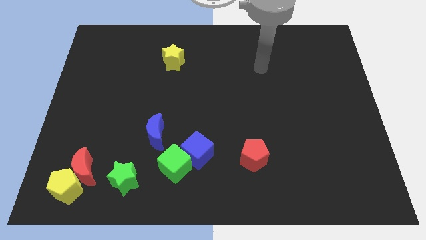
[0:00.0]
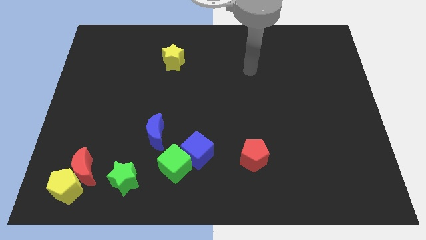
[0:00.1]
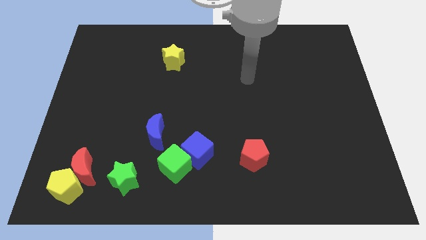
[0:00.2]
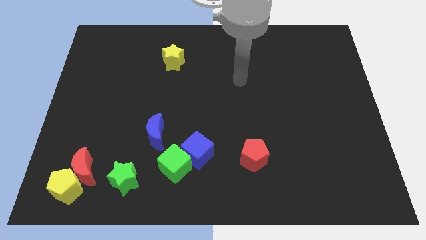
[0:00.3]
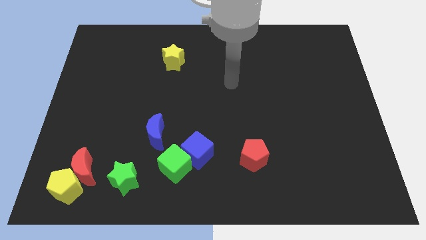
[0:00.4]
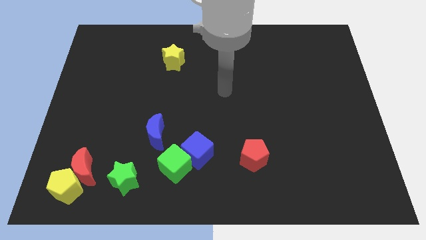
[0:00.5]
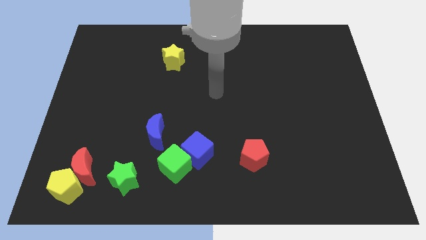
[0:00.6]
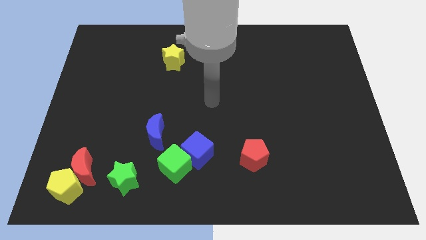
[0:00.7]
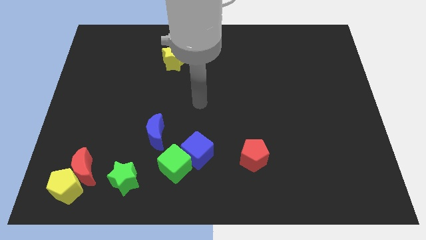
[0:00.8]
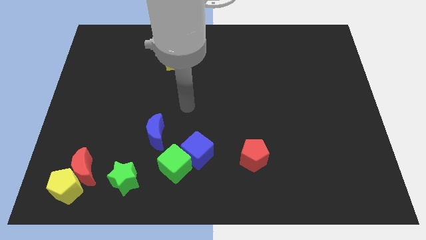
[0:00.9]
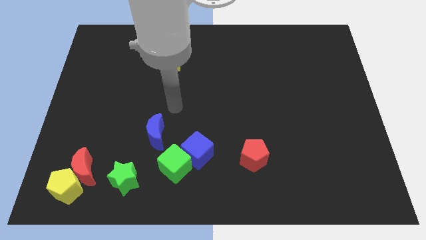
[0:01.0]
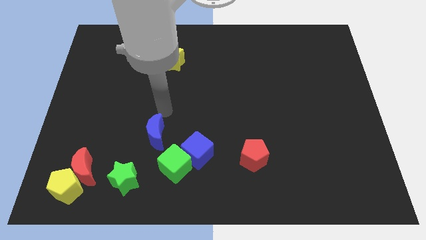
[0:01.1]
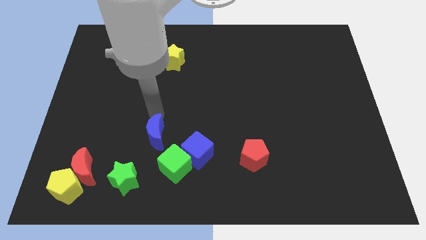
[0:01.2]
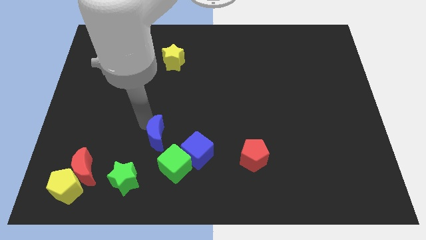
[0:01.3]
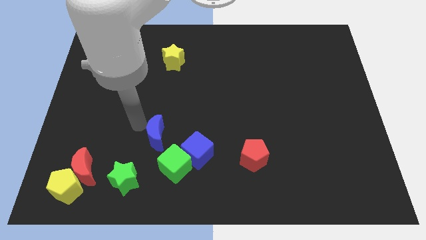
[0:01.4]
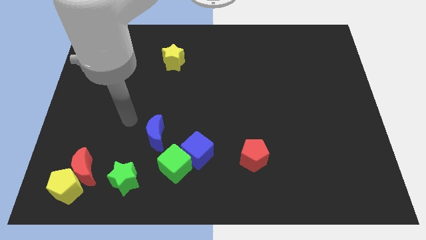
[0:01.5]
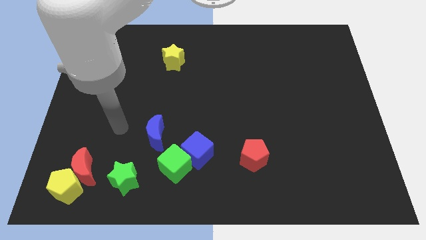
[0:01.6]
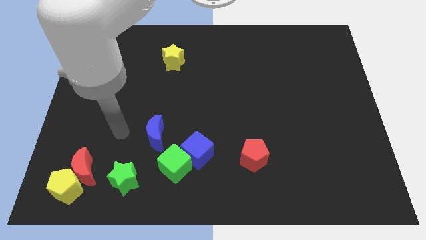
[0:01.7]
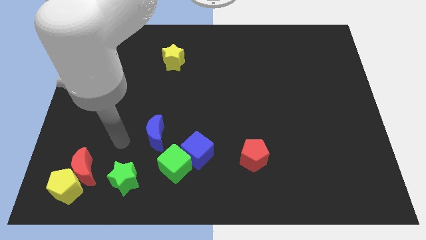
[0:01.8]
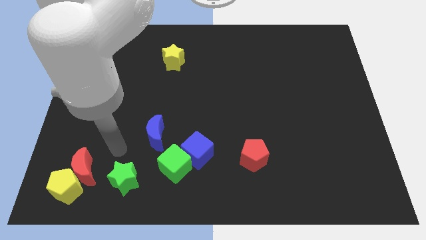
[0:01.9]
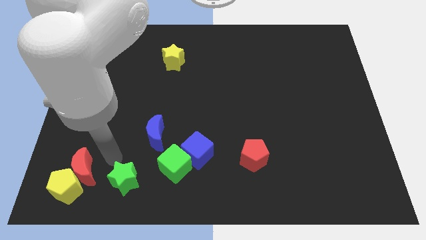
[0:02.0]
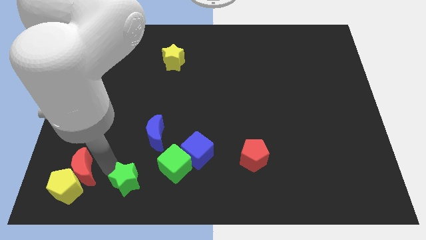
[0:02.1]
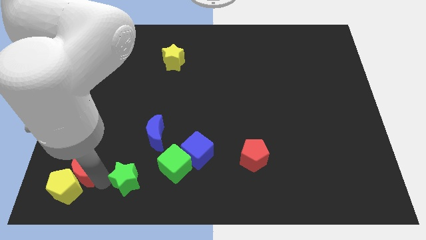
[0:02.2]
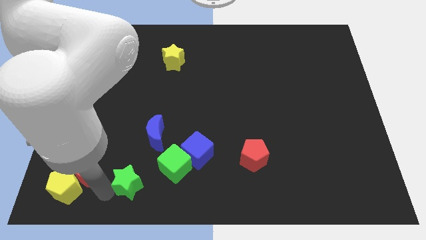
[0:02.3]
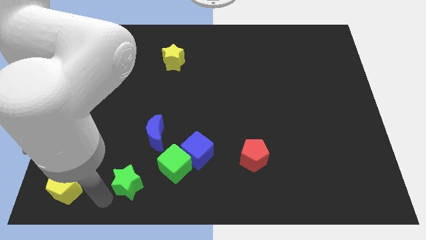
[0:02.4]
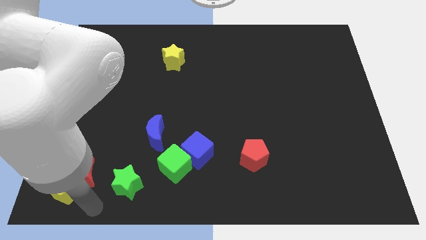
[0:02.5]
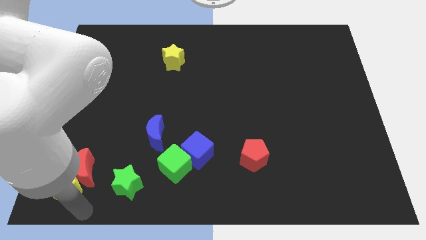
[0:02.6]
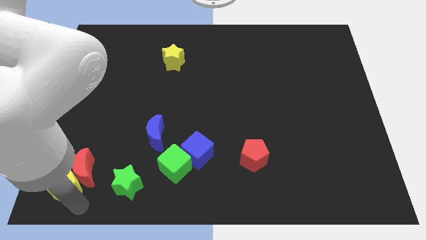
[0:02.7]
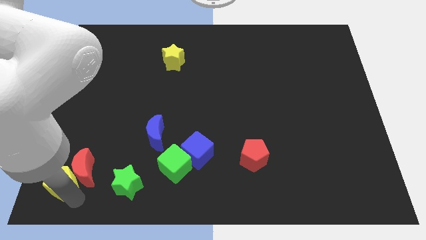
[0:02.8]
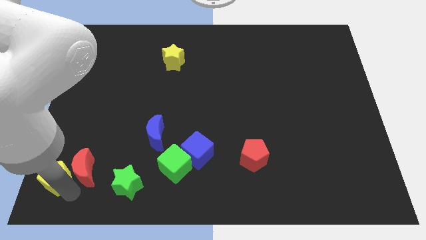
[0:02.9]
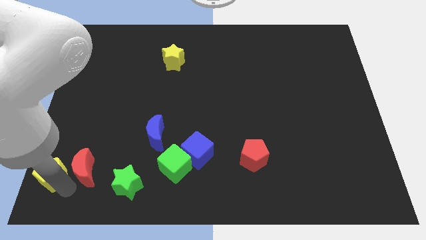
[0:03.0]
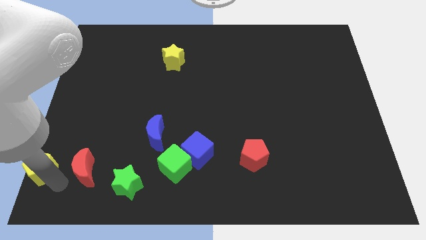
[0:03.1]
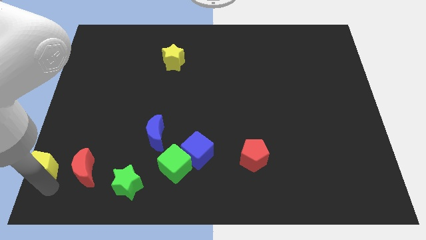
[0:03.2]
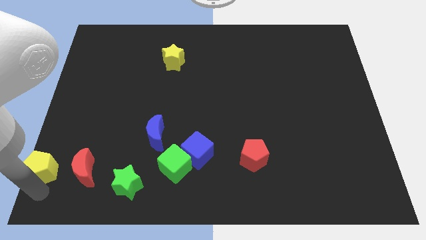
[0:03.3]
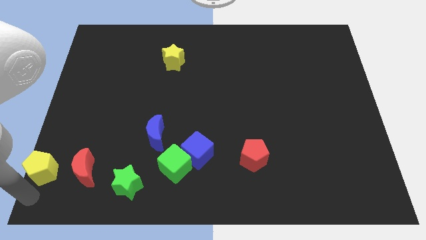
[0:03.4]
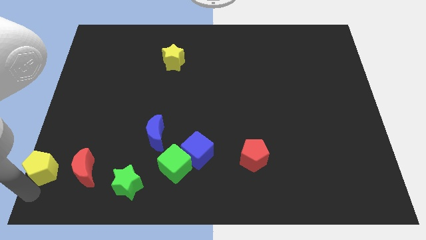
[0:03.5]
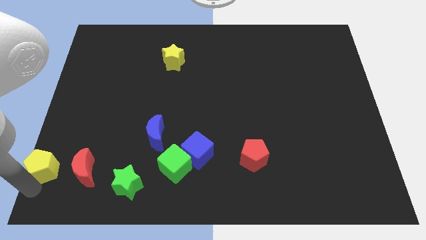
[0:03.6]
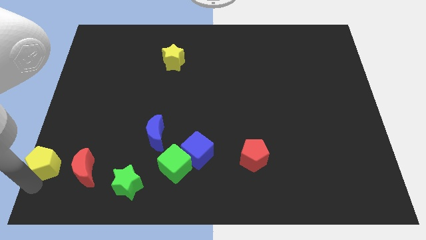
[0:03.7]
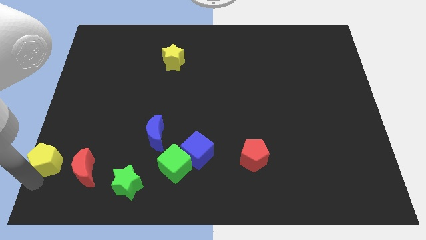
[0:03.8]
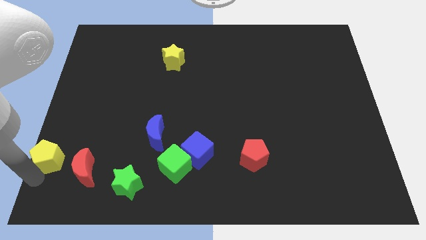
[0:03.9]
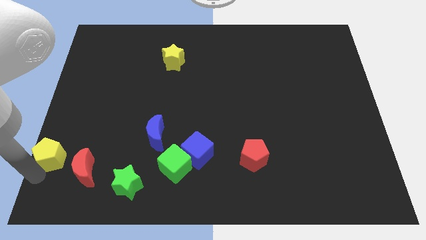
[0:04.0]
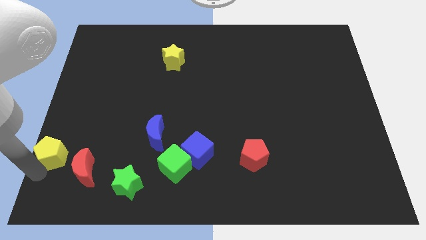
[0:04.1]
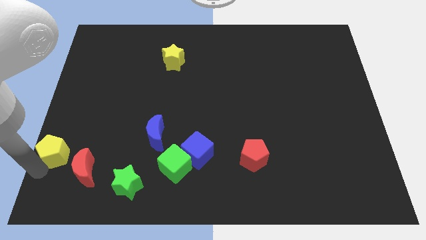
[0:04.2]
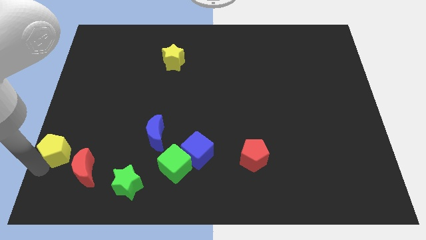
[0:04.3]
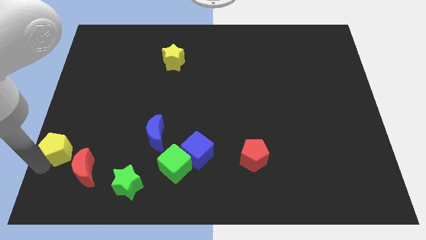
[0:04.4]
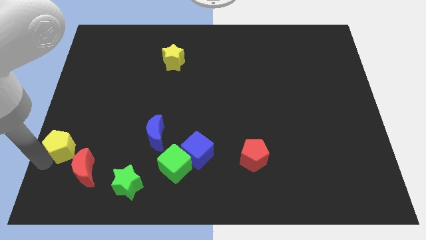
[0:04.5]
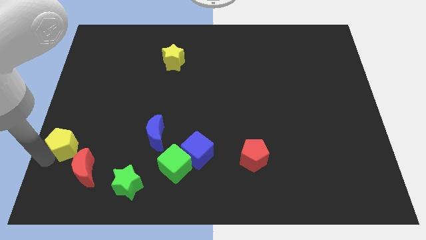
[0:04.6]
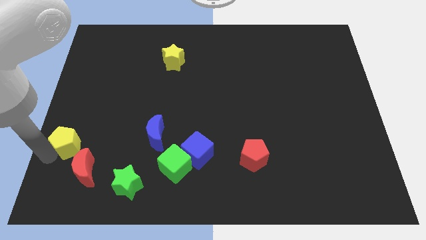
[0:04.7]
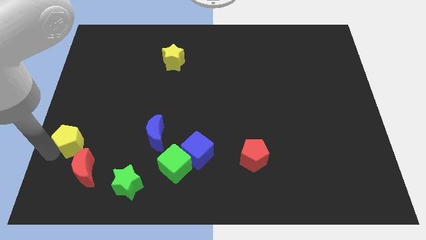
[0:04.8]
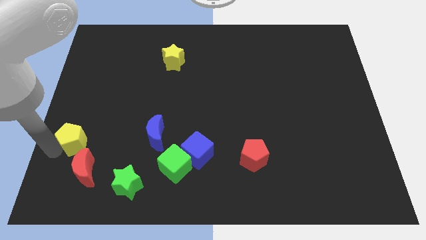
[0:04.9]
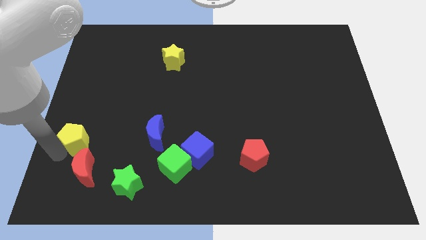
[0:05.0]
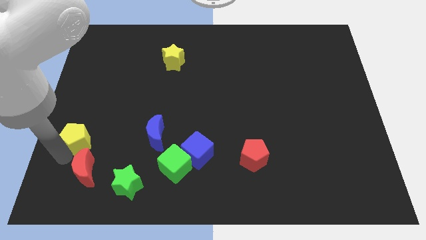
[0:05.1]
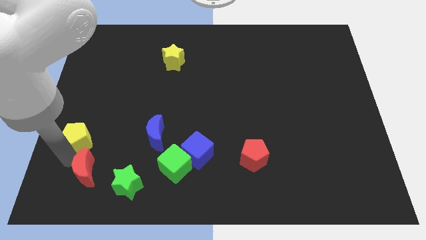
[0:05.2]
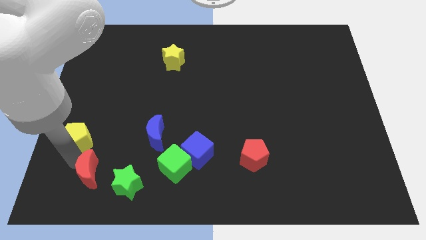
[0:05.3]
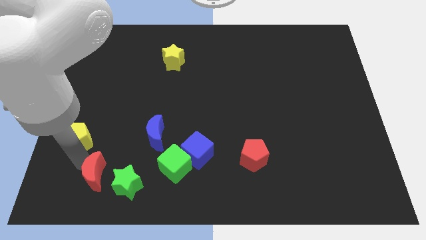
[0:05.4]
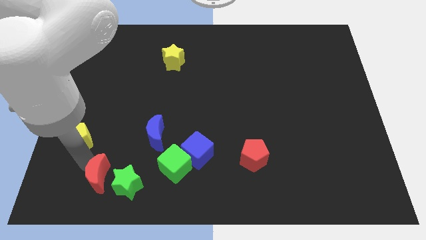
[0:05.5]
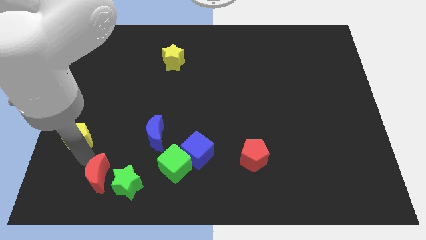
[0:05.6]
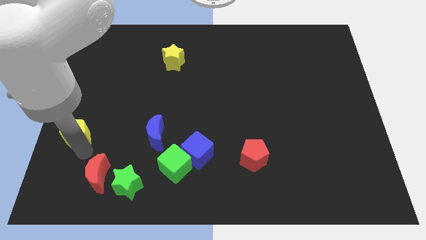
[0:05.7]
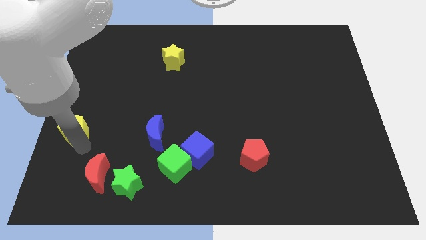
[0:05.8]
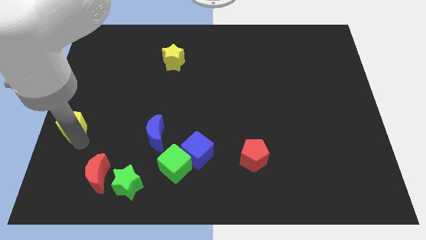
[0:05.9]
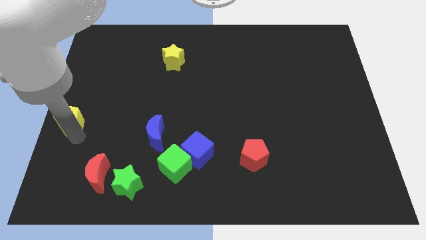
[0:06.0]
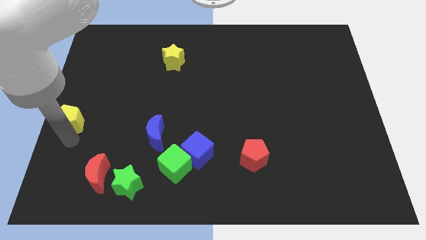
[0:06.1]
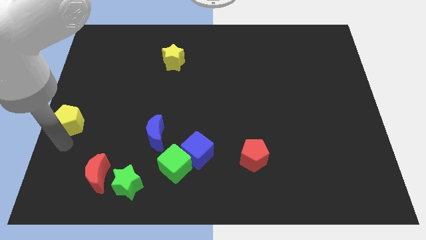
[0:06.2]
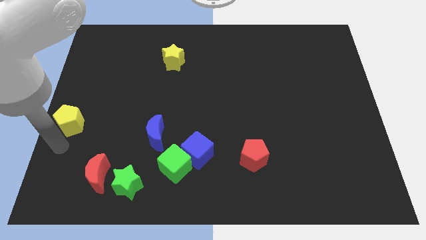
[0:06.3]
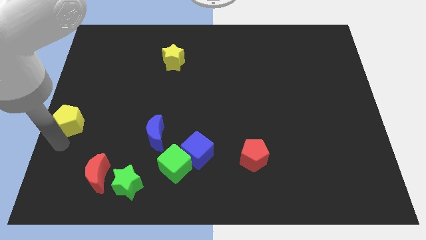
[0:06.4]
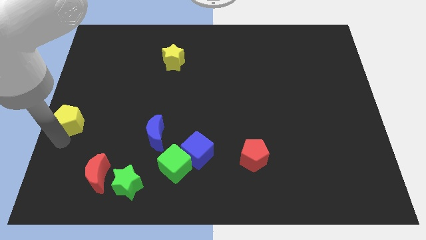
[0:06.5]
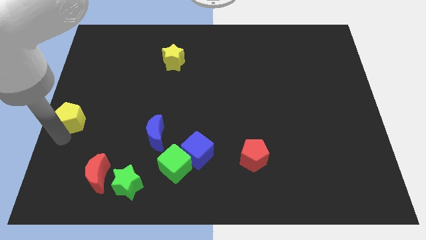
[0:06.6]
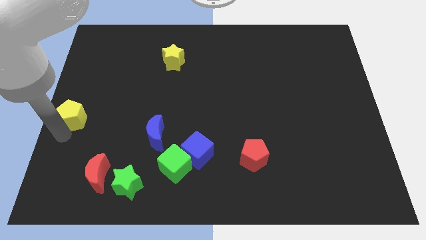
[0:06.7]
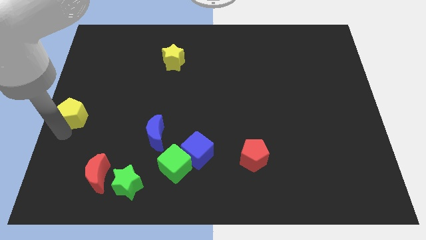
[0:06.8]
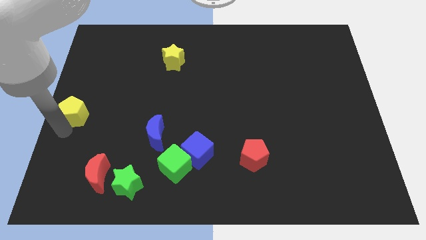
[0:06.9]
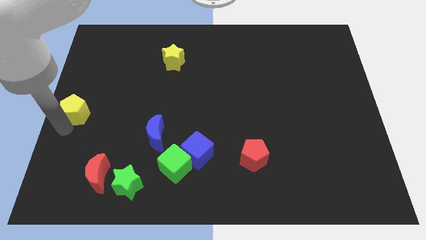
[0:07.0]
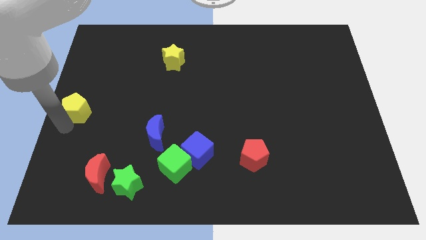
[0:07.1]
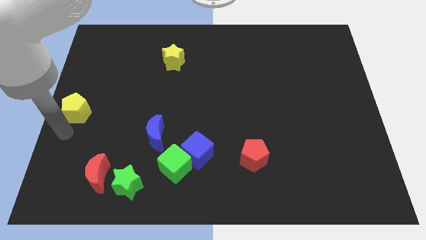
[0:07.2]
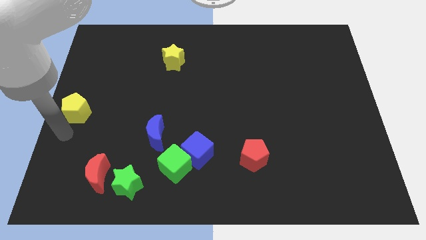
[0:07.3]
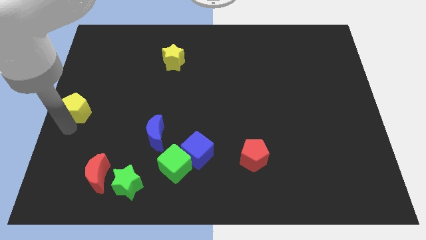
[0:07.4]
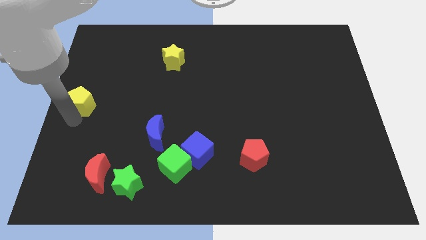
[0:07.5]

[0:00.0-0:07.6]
push the yellow pentagon up
